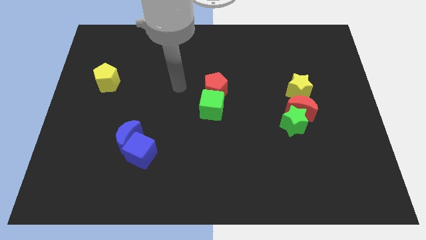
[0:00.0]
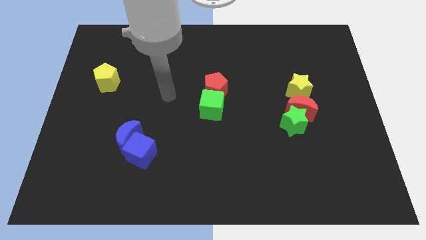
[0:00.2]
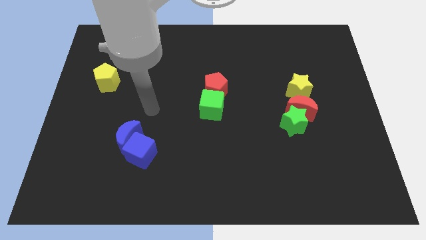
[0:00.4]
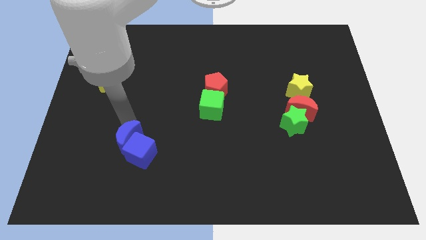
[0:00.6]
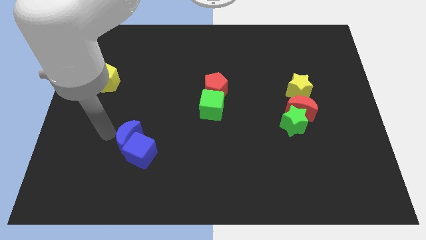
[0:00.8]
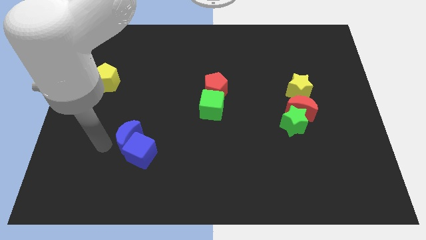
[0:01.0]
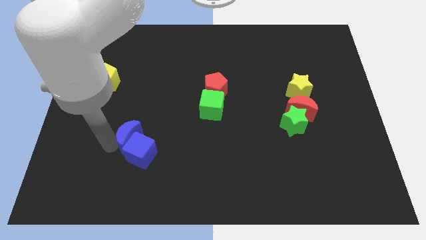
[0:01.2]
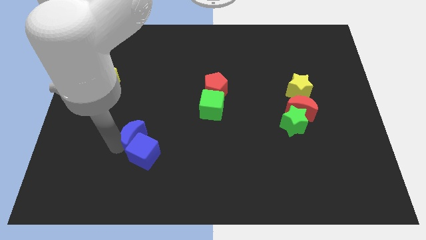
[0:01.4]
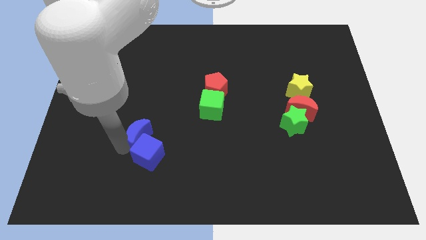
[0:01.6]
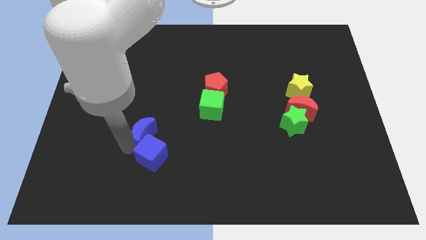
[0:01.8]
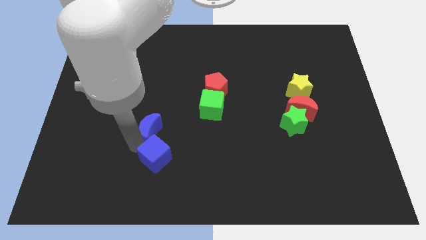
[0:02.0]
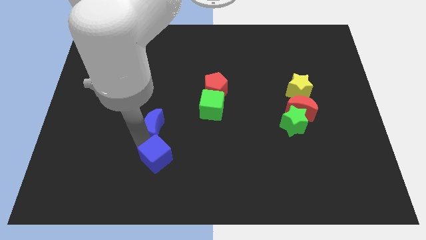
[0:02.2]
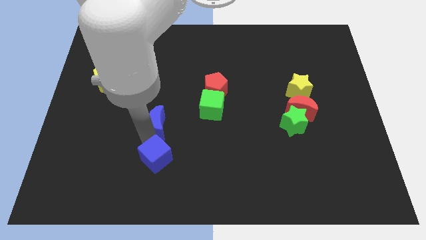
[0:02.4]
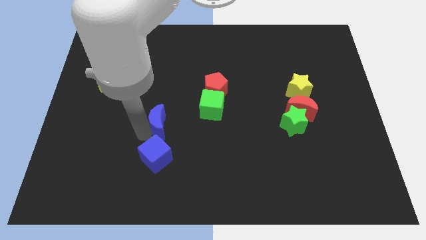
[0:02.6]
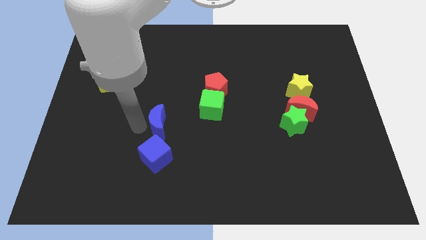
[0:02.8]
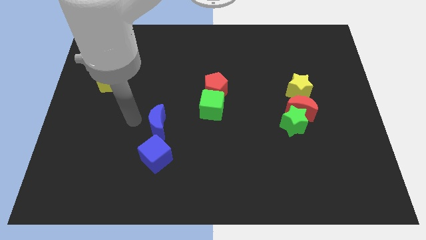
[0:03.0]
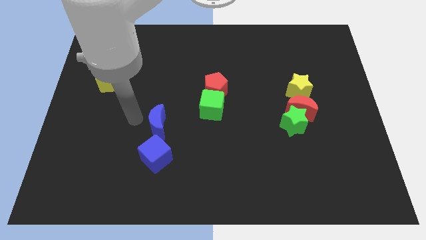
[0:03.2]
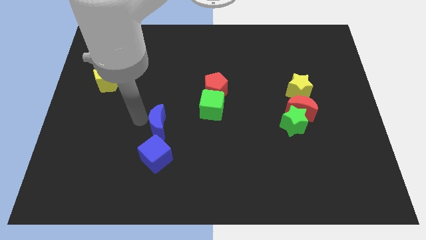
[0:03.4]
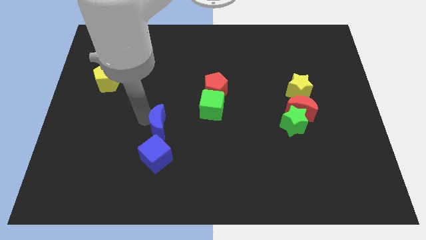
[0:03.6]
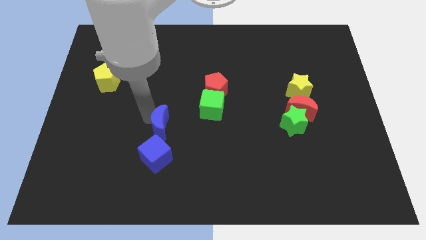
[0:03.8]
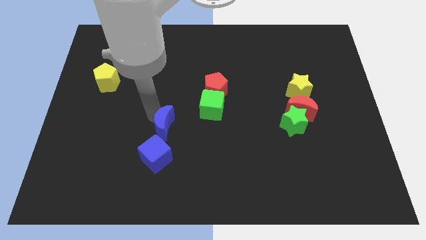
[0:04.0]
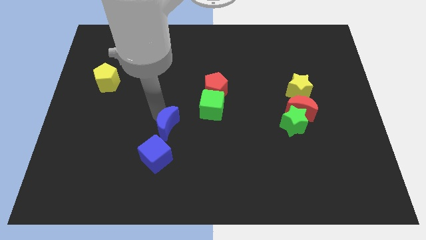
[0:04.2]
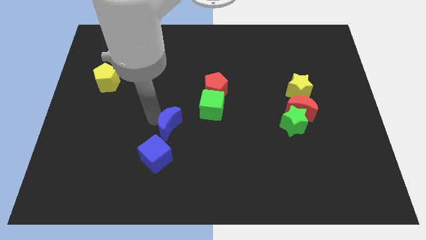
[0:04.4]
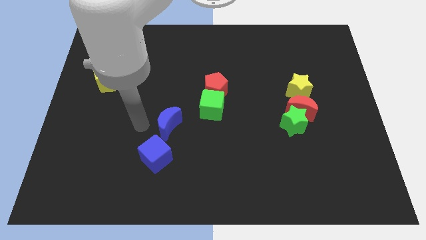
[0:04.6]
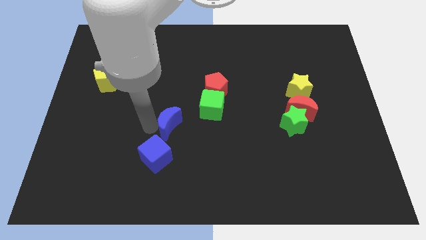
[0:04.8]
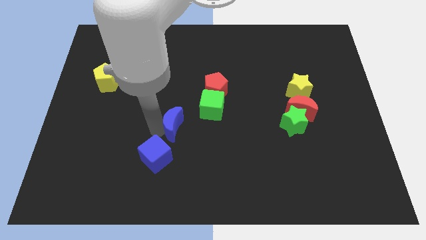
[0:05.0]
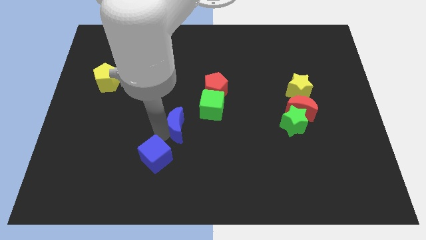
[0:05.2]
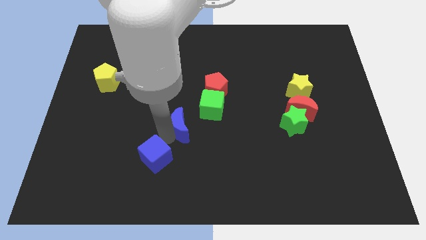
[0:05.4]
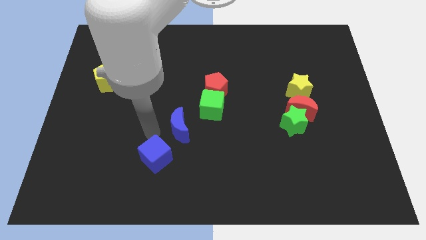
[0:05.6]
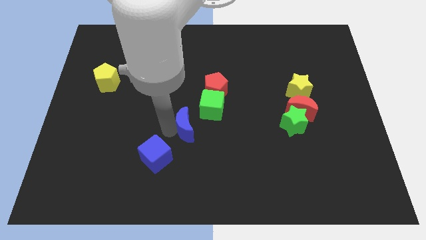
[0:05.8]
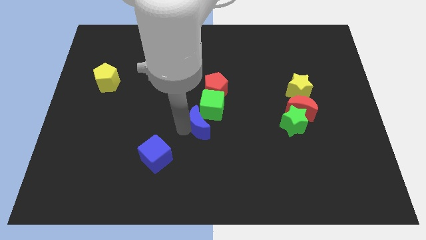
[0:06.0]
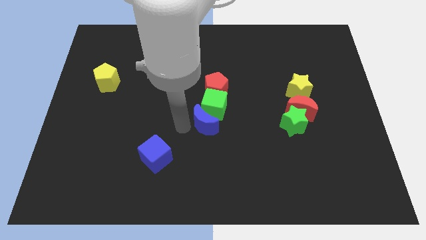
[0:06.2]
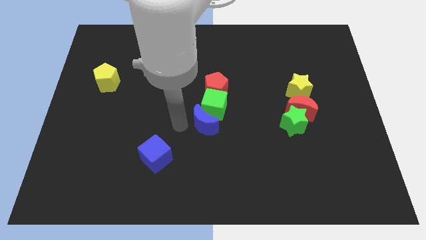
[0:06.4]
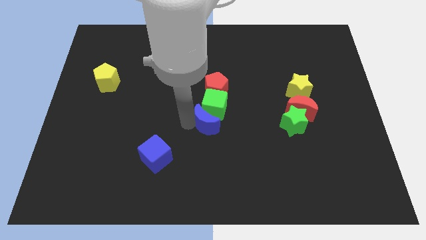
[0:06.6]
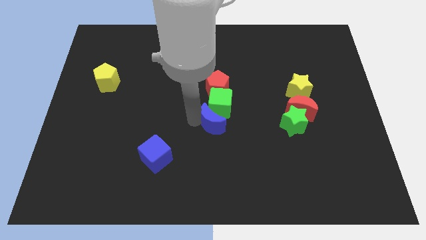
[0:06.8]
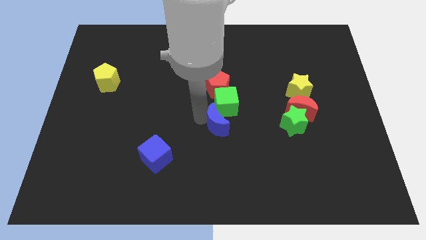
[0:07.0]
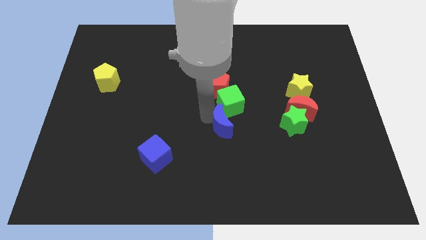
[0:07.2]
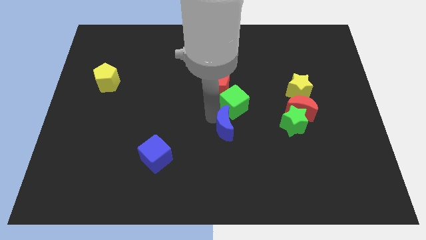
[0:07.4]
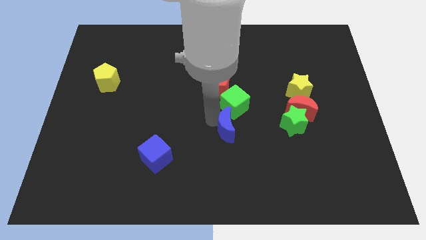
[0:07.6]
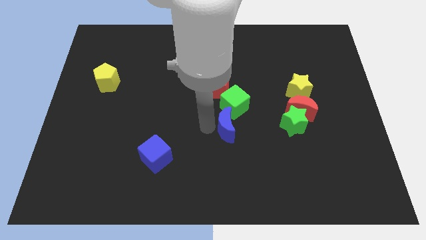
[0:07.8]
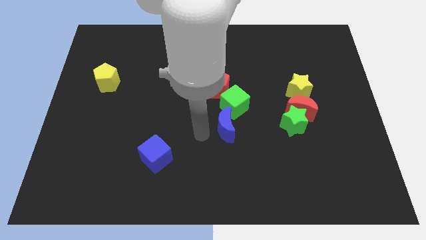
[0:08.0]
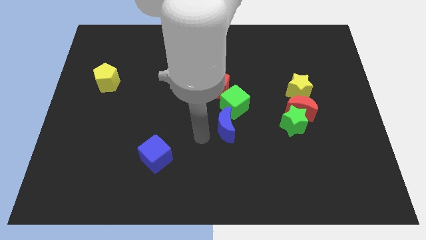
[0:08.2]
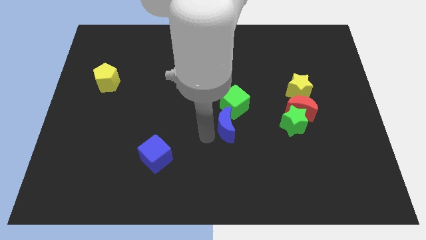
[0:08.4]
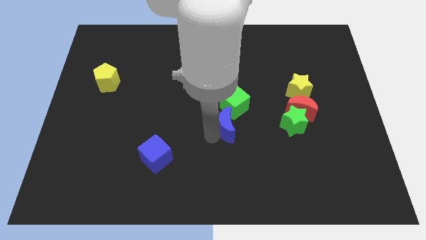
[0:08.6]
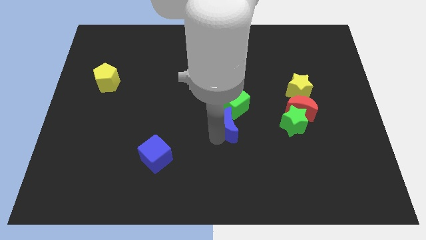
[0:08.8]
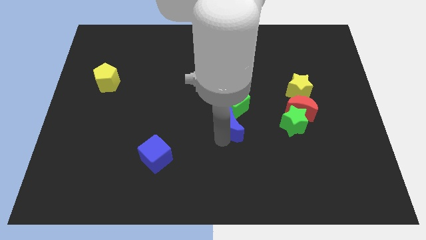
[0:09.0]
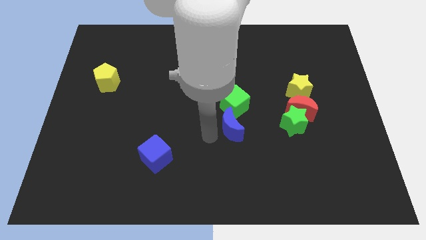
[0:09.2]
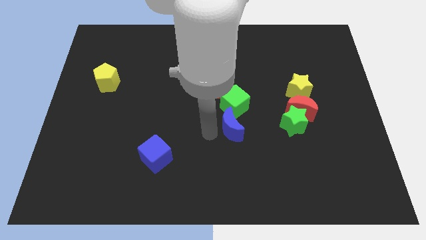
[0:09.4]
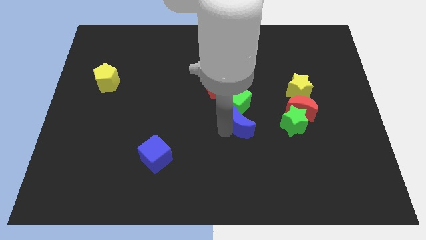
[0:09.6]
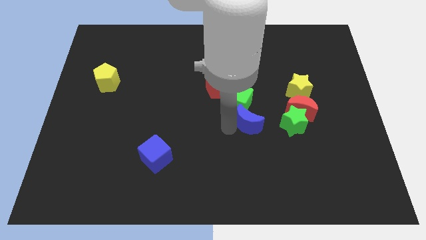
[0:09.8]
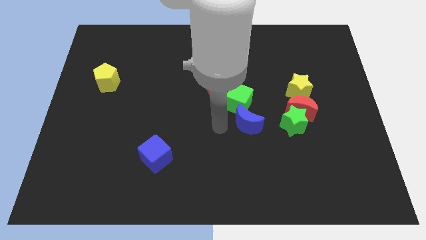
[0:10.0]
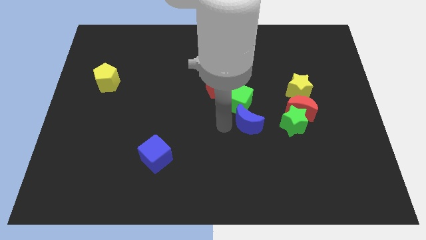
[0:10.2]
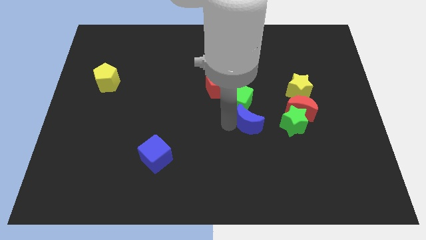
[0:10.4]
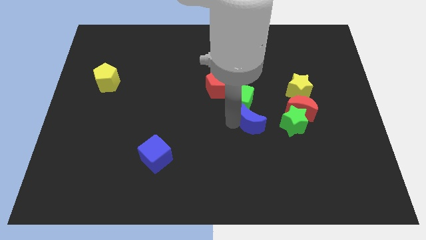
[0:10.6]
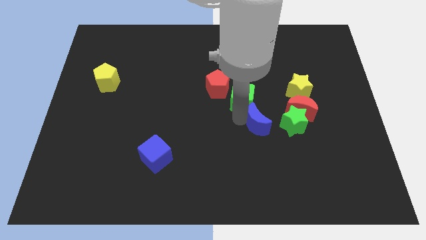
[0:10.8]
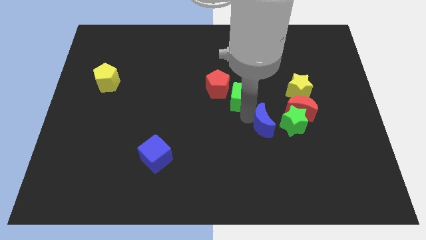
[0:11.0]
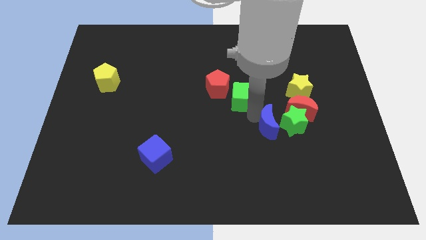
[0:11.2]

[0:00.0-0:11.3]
put the blue moon to the green star

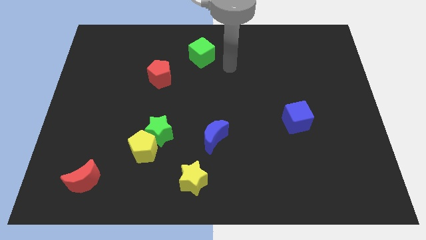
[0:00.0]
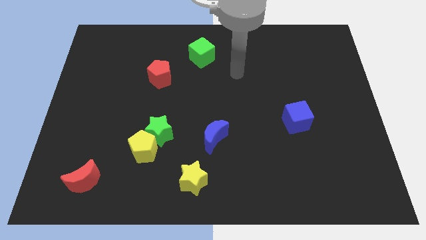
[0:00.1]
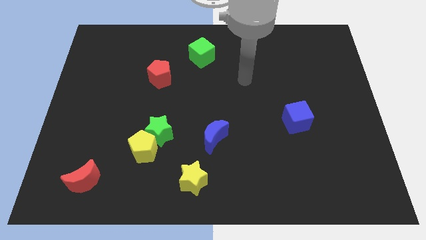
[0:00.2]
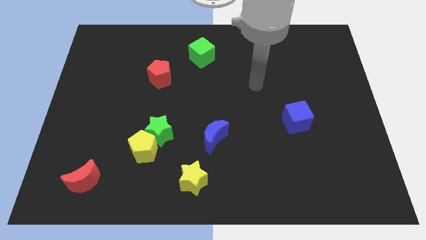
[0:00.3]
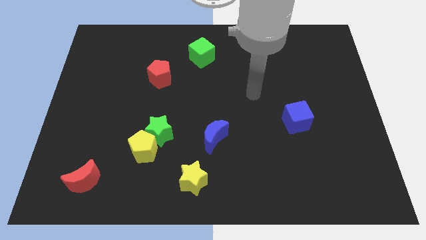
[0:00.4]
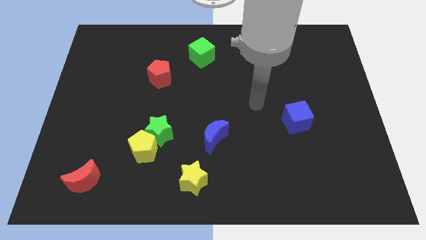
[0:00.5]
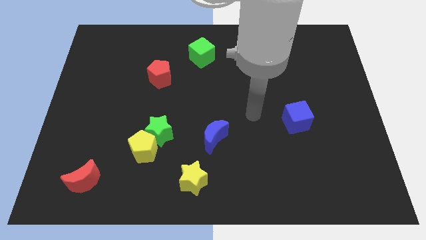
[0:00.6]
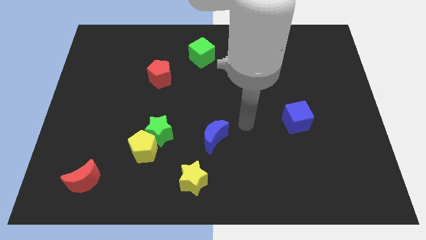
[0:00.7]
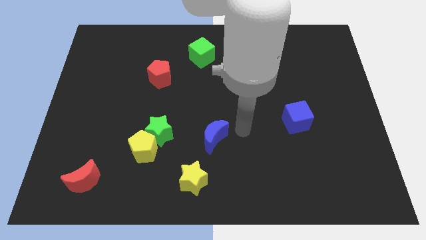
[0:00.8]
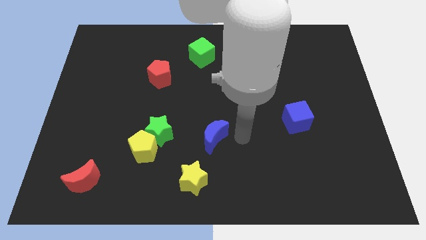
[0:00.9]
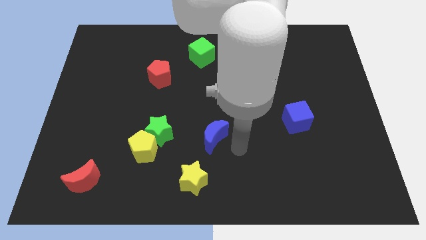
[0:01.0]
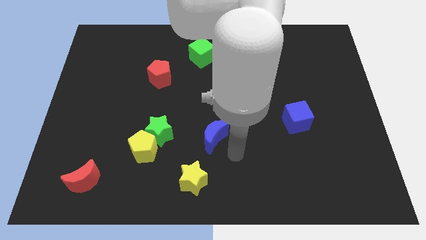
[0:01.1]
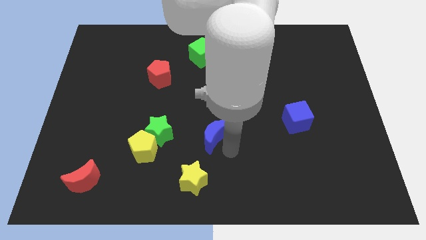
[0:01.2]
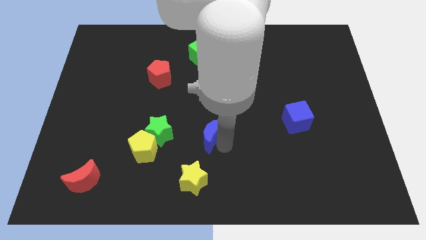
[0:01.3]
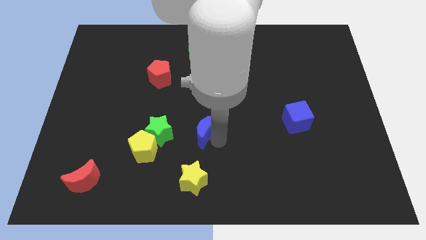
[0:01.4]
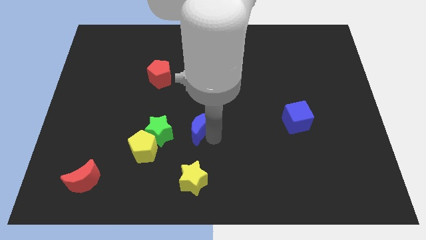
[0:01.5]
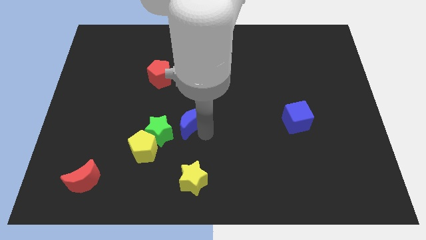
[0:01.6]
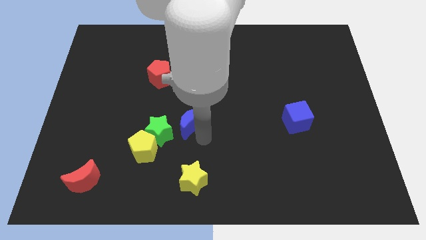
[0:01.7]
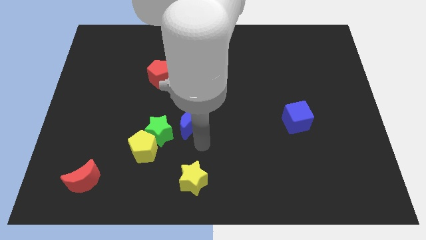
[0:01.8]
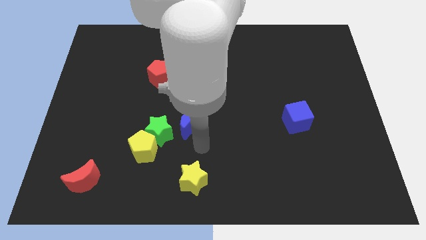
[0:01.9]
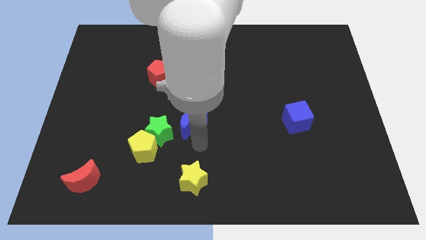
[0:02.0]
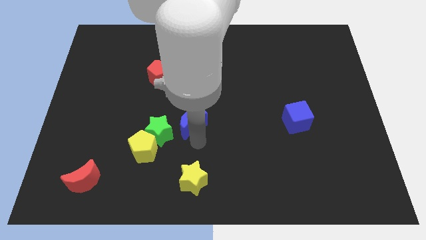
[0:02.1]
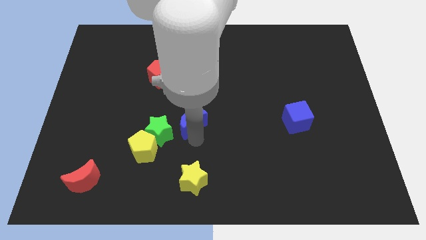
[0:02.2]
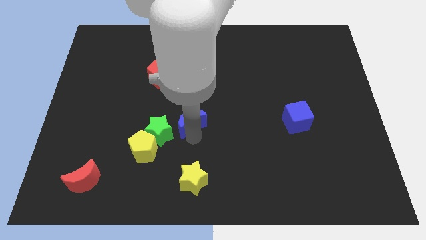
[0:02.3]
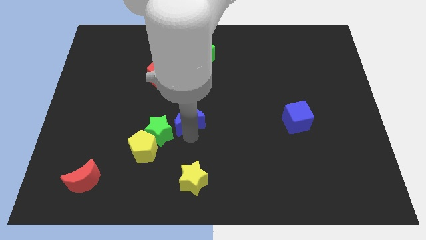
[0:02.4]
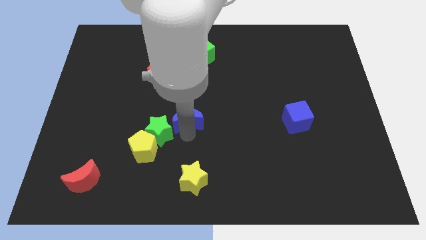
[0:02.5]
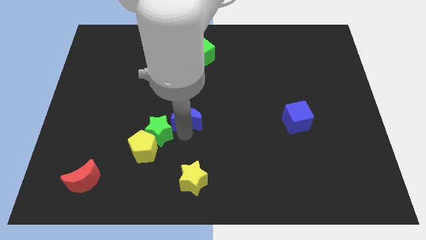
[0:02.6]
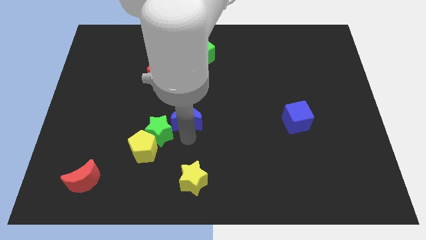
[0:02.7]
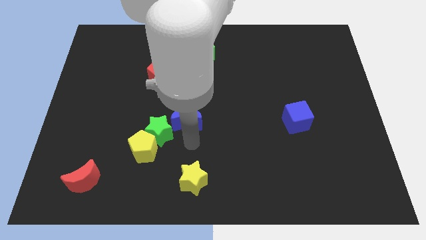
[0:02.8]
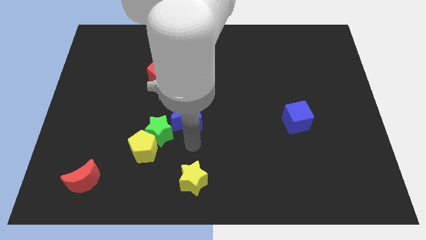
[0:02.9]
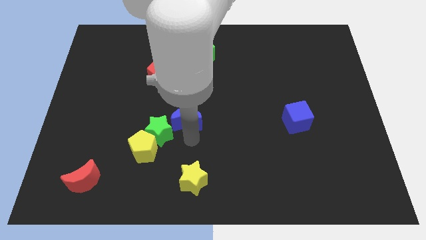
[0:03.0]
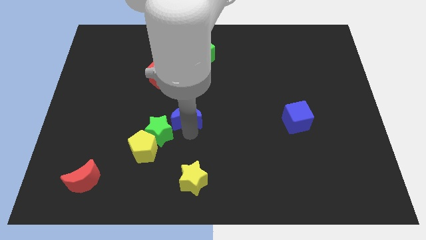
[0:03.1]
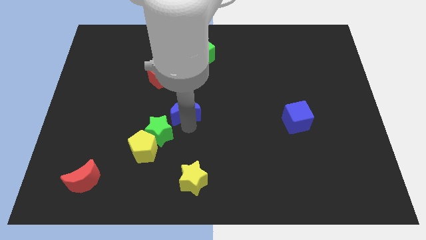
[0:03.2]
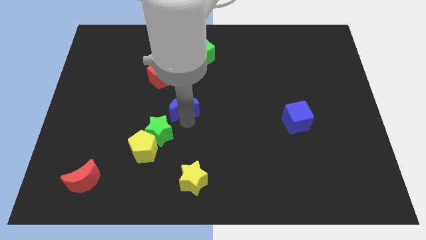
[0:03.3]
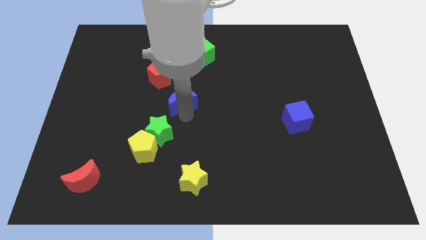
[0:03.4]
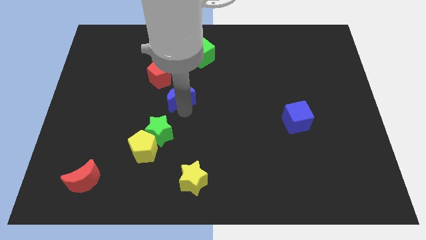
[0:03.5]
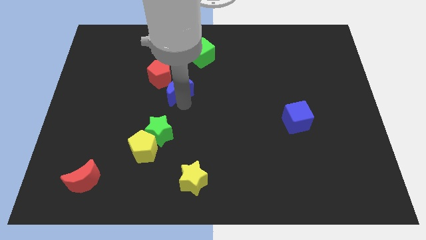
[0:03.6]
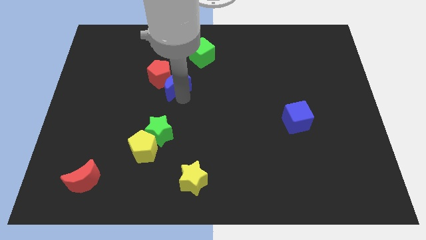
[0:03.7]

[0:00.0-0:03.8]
push the blue moon next to the red pentagon
